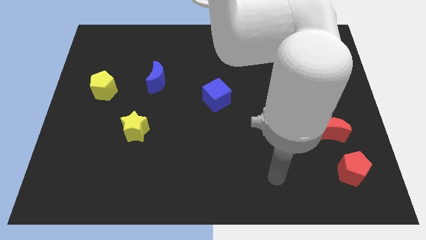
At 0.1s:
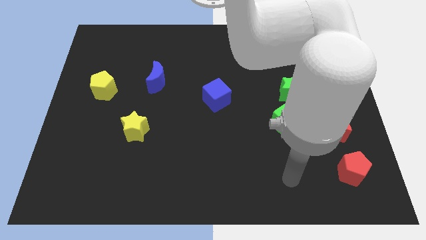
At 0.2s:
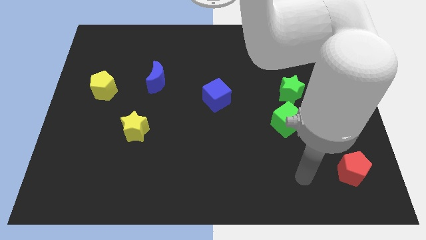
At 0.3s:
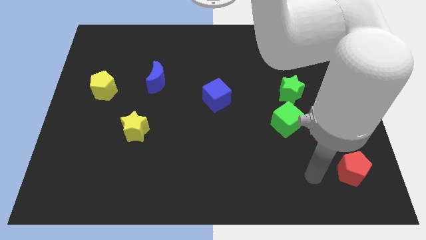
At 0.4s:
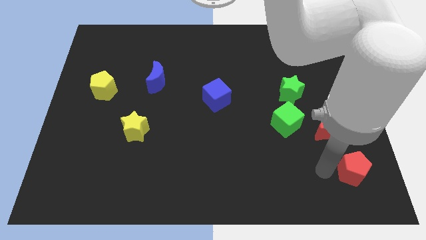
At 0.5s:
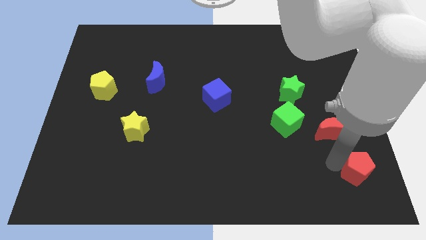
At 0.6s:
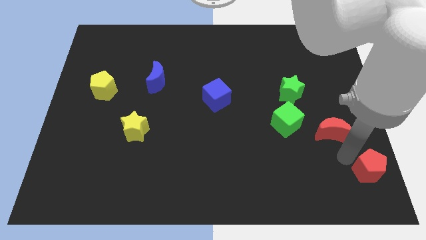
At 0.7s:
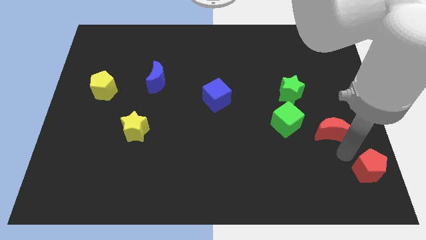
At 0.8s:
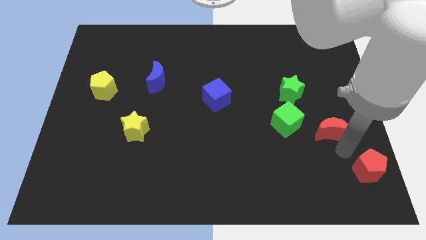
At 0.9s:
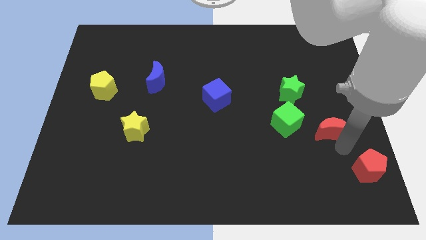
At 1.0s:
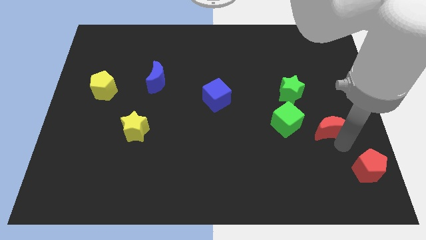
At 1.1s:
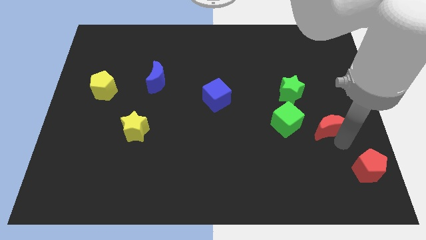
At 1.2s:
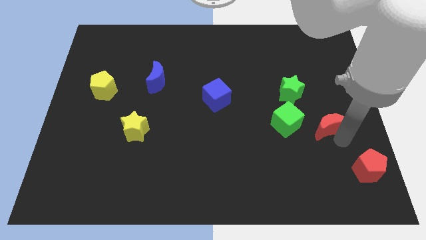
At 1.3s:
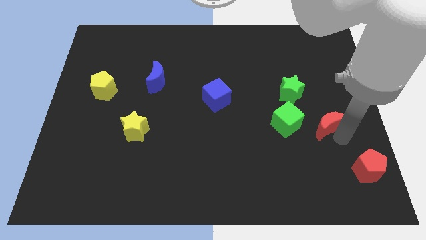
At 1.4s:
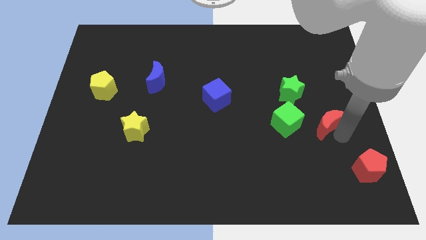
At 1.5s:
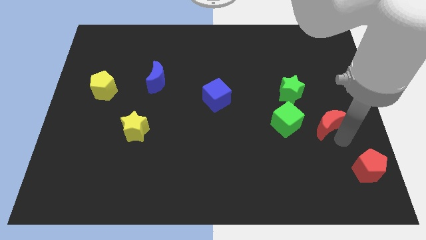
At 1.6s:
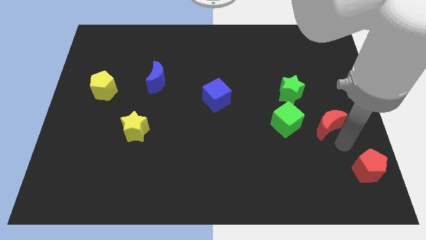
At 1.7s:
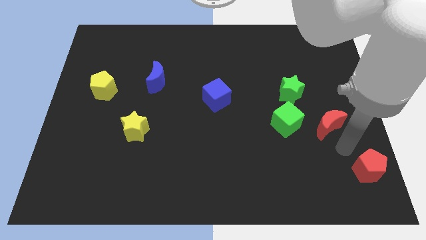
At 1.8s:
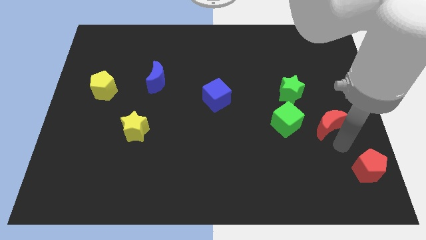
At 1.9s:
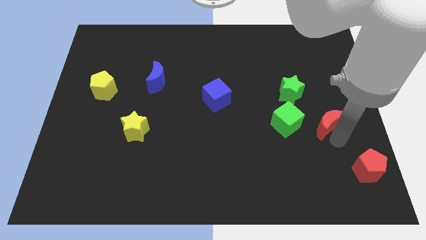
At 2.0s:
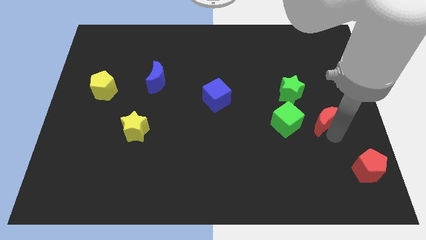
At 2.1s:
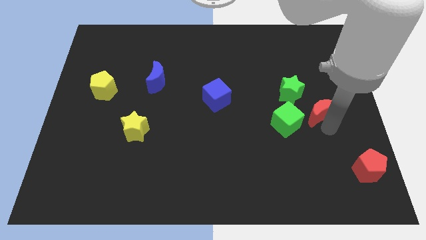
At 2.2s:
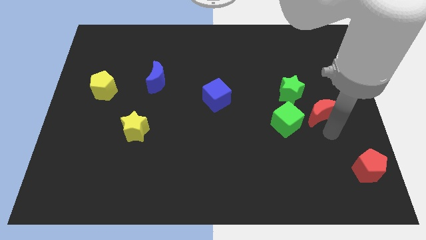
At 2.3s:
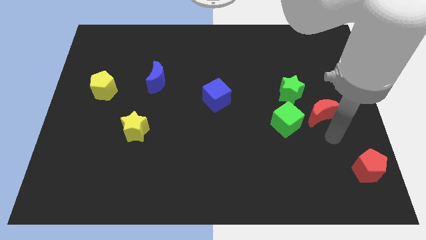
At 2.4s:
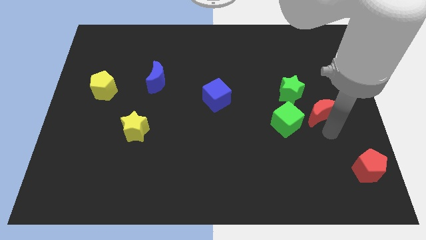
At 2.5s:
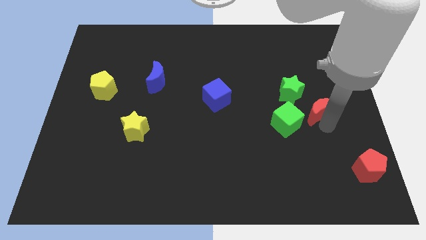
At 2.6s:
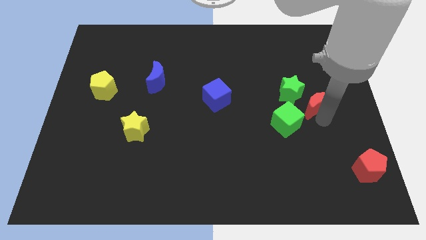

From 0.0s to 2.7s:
slide the red moon upwards a bit

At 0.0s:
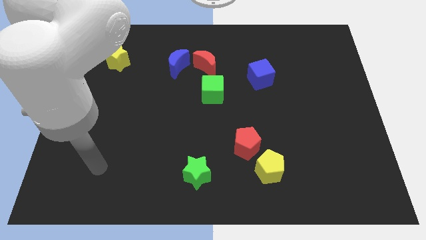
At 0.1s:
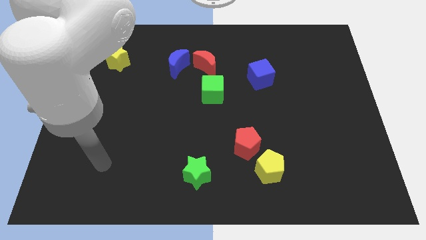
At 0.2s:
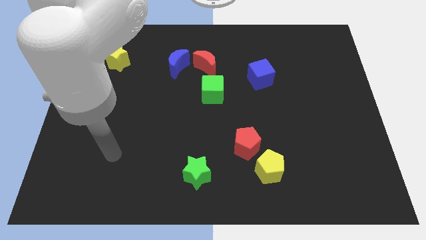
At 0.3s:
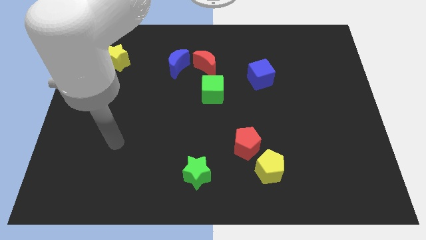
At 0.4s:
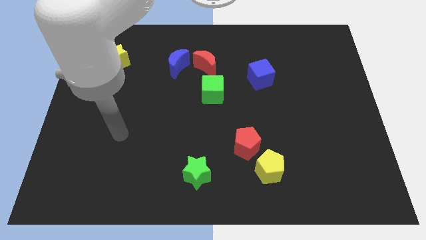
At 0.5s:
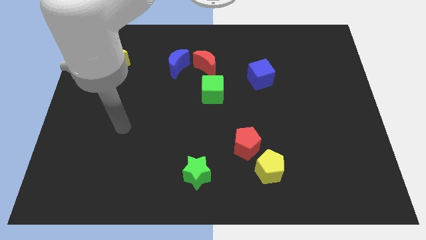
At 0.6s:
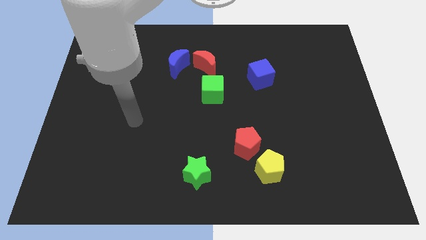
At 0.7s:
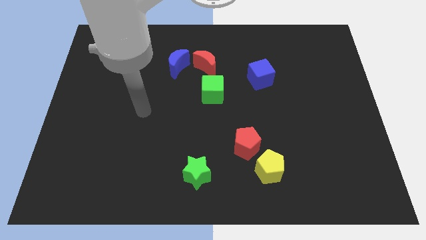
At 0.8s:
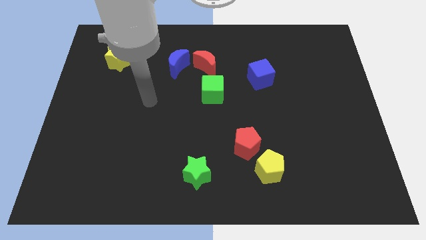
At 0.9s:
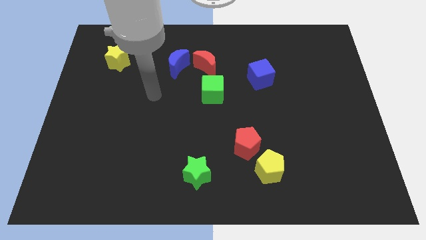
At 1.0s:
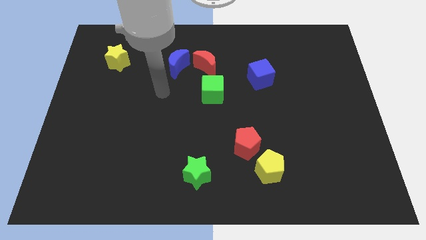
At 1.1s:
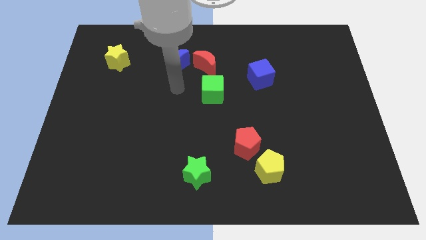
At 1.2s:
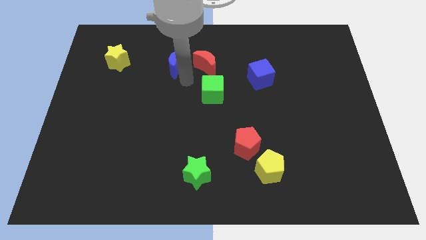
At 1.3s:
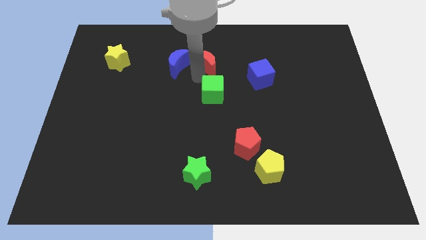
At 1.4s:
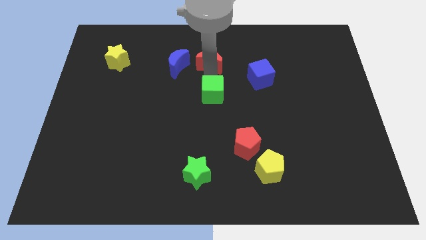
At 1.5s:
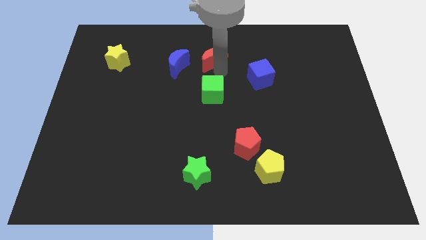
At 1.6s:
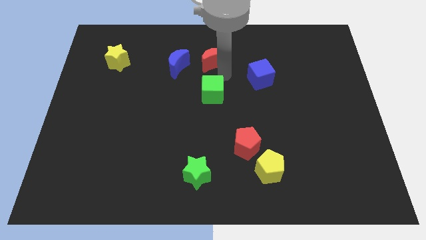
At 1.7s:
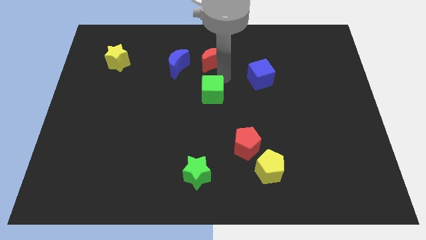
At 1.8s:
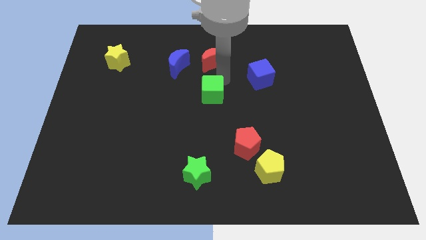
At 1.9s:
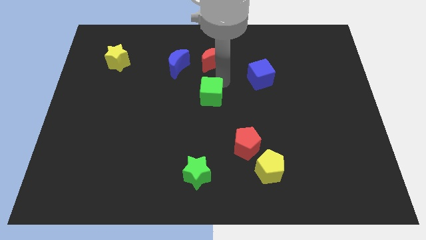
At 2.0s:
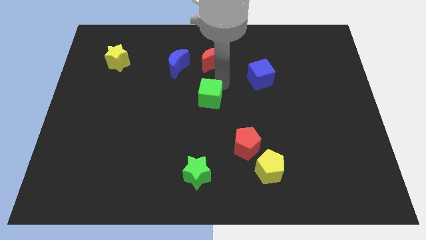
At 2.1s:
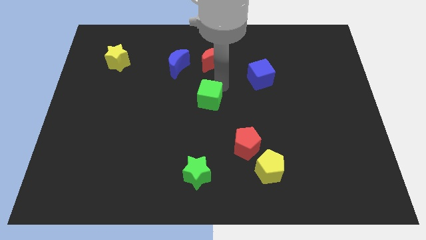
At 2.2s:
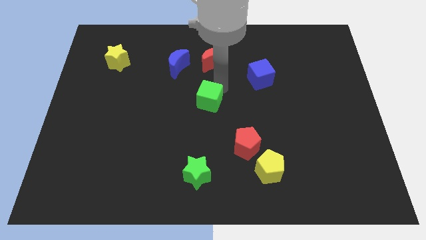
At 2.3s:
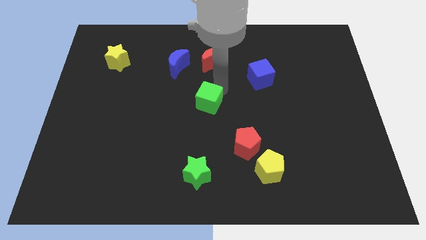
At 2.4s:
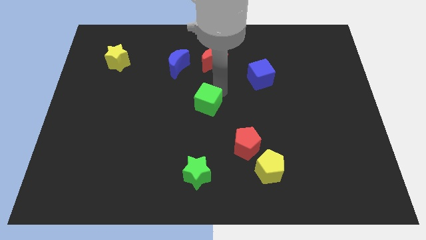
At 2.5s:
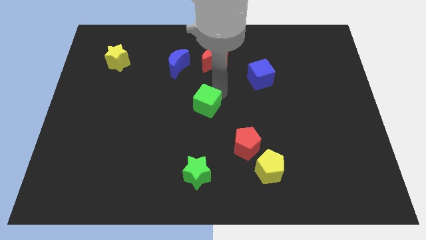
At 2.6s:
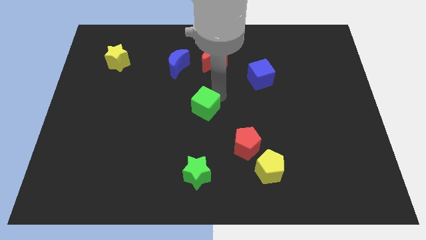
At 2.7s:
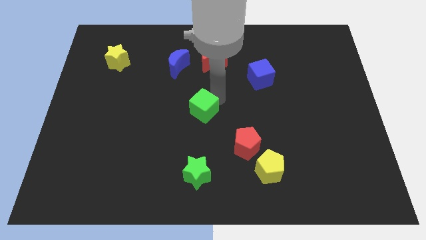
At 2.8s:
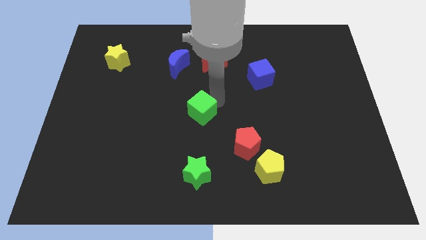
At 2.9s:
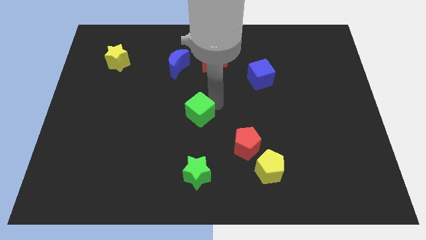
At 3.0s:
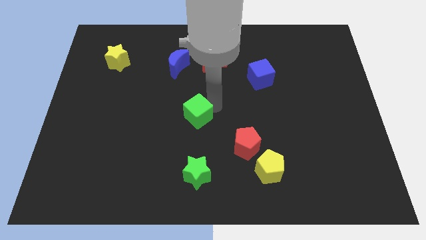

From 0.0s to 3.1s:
slightly push the green cube down and then left

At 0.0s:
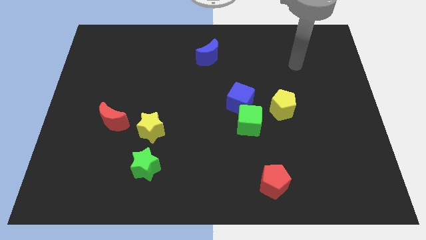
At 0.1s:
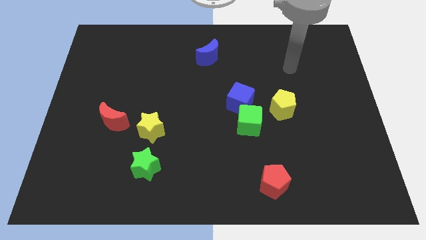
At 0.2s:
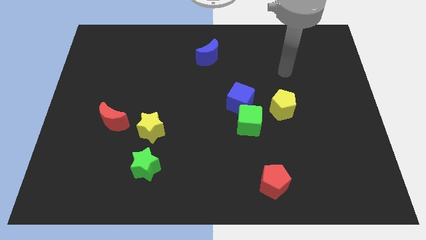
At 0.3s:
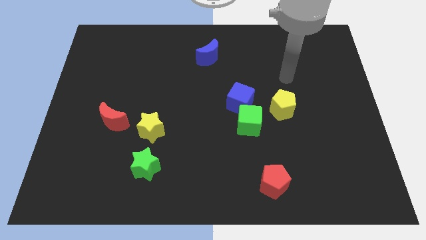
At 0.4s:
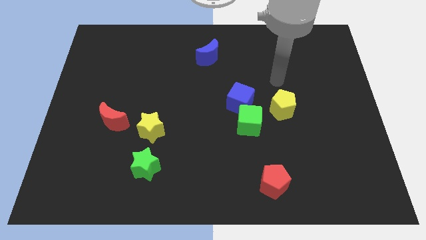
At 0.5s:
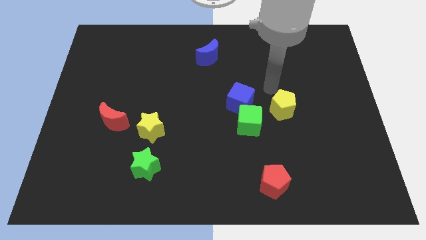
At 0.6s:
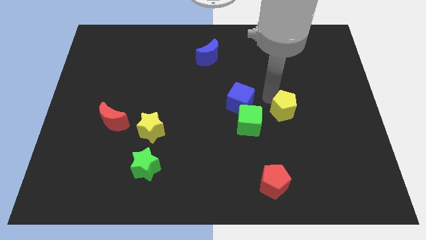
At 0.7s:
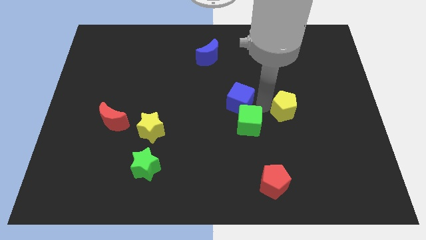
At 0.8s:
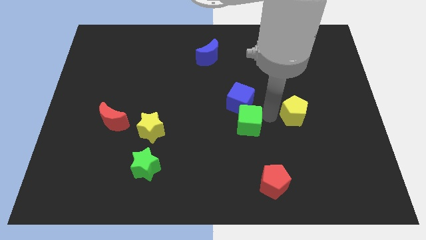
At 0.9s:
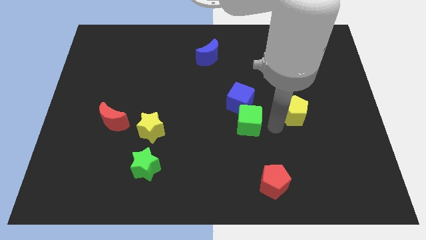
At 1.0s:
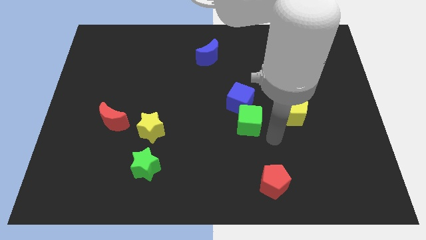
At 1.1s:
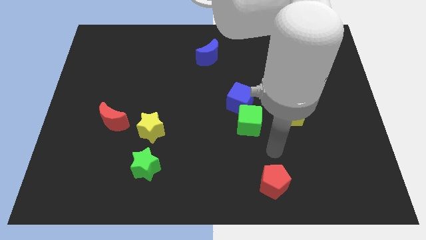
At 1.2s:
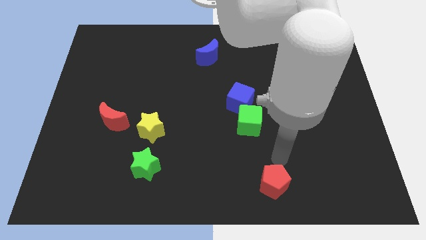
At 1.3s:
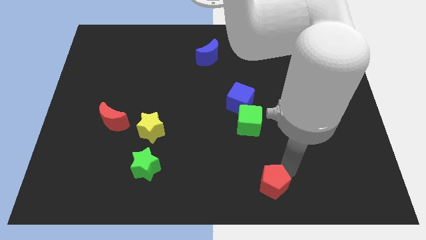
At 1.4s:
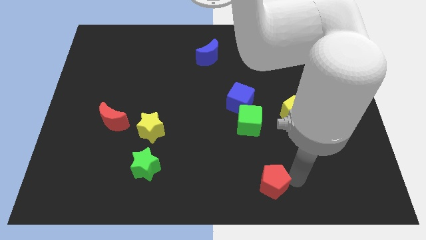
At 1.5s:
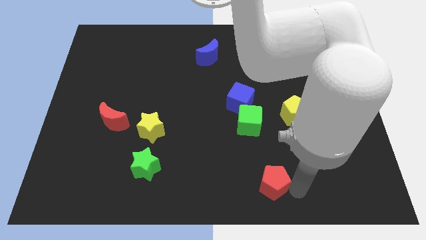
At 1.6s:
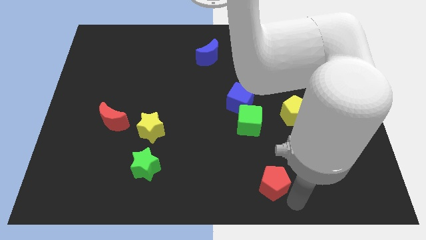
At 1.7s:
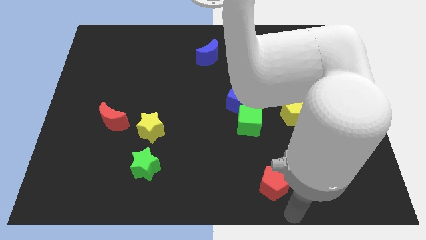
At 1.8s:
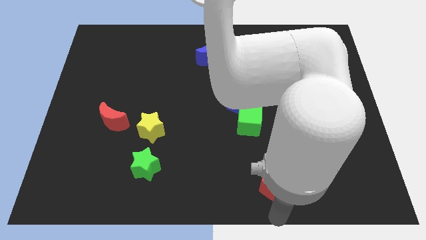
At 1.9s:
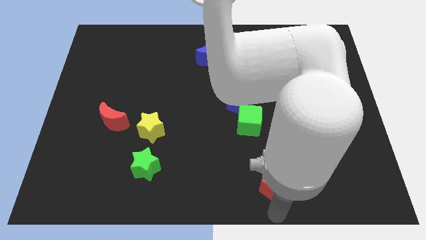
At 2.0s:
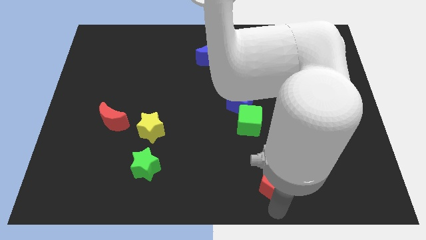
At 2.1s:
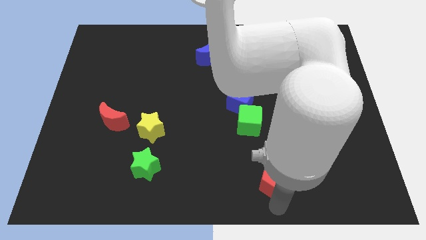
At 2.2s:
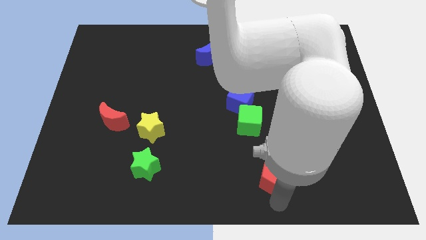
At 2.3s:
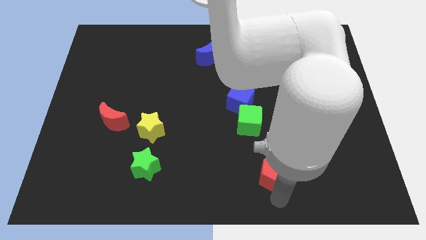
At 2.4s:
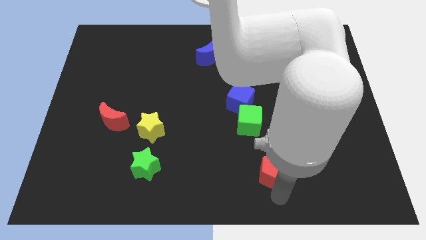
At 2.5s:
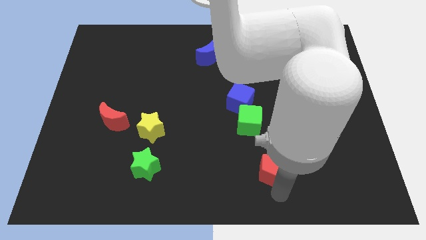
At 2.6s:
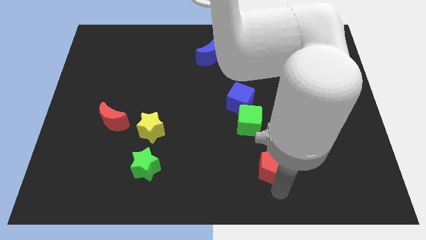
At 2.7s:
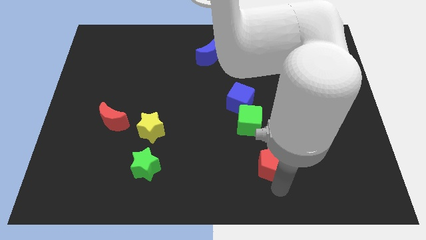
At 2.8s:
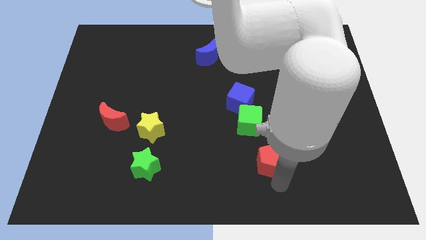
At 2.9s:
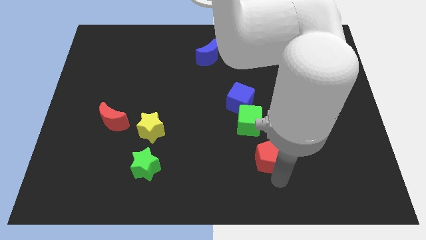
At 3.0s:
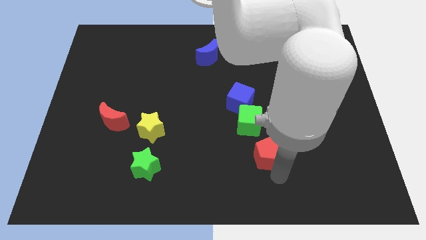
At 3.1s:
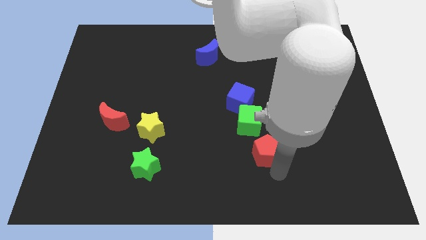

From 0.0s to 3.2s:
push the red pentagon a little bit upwards
